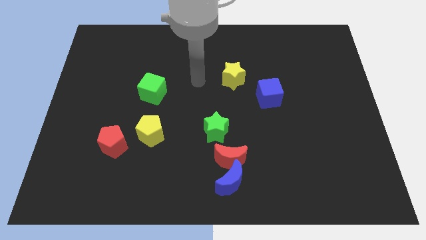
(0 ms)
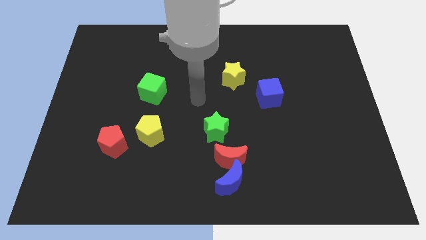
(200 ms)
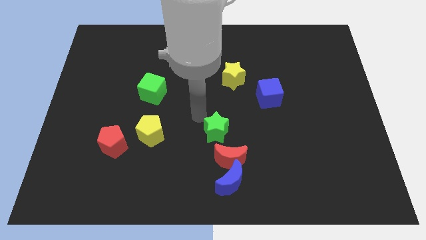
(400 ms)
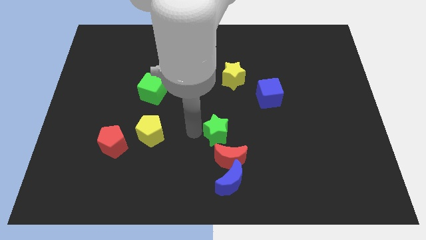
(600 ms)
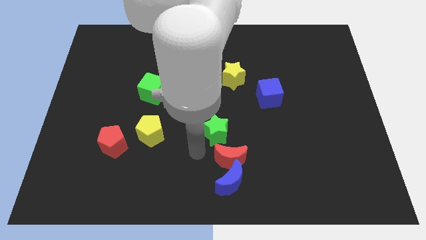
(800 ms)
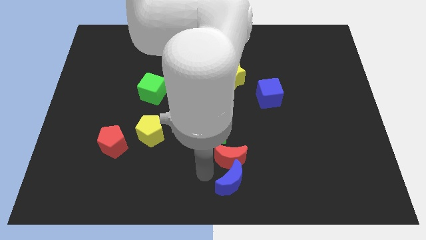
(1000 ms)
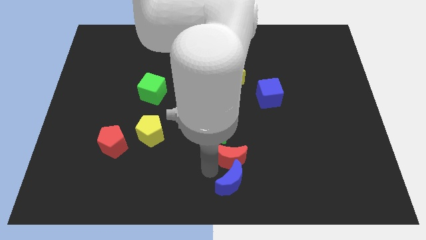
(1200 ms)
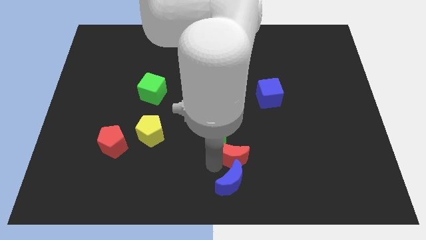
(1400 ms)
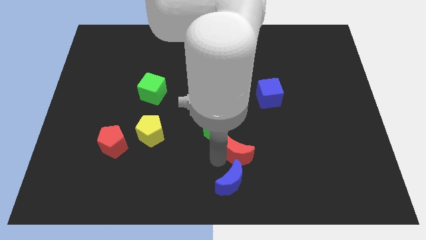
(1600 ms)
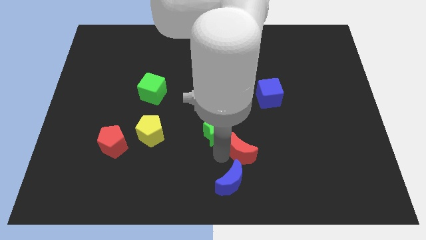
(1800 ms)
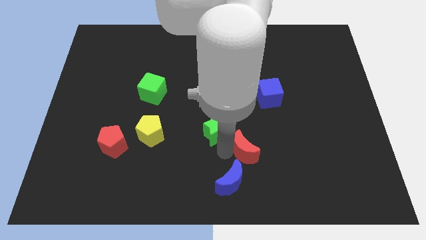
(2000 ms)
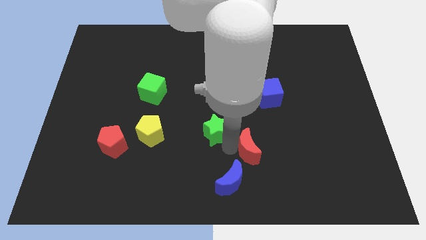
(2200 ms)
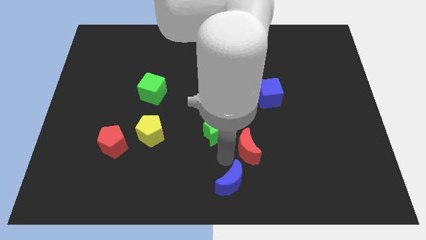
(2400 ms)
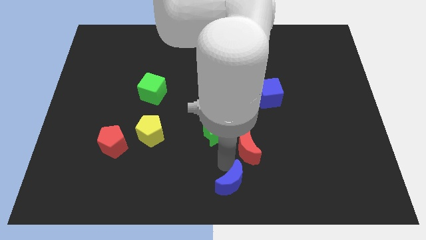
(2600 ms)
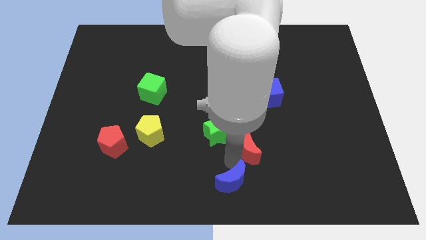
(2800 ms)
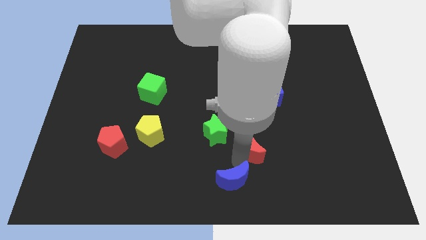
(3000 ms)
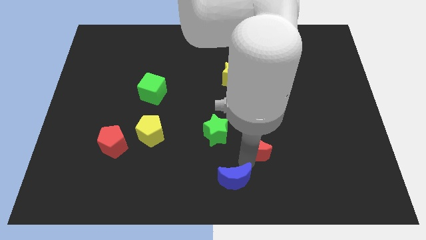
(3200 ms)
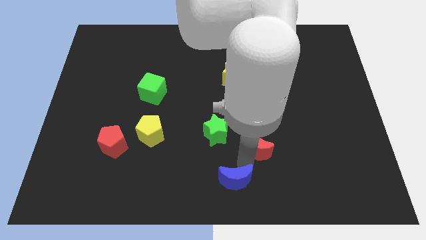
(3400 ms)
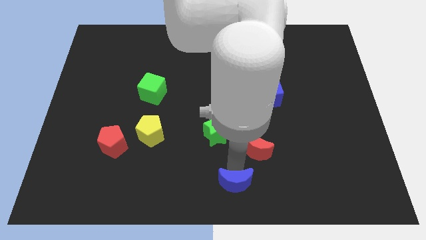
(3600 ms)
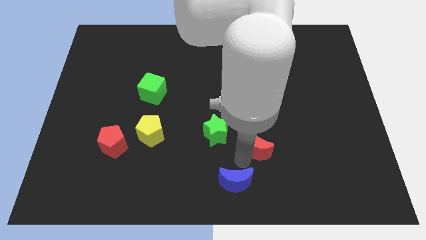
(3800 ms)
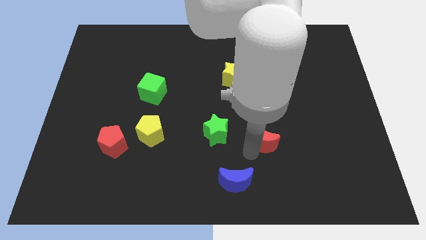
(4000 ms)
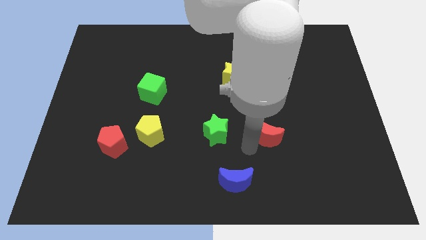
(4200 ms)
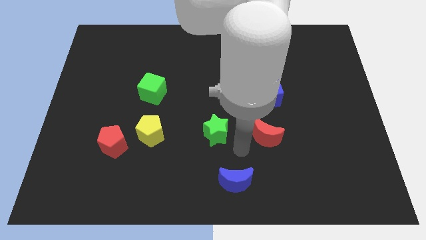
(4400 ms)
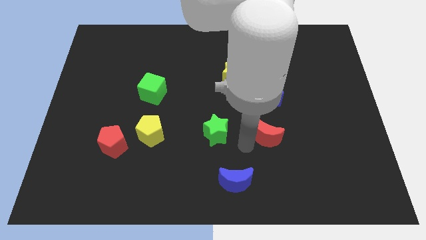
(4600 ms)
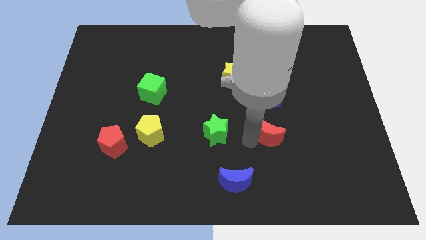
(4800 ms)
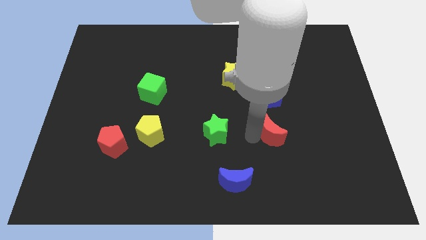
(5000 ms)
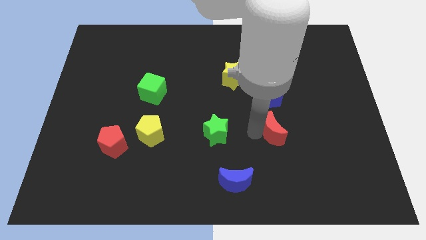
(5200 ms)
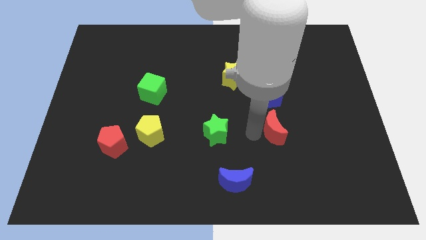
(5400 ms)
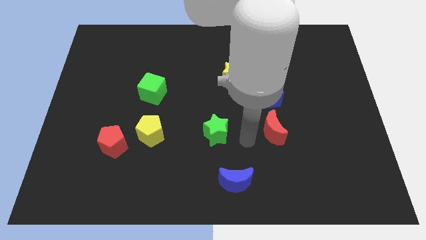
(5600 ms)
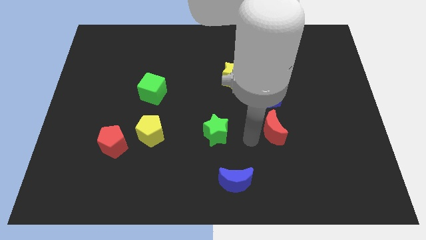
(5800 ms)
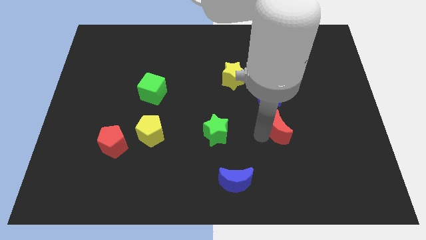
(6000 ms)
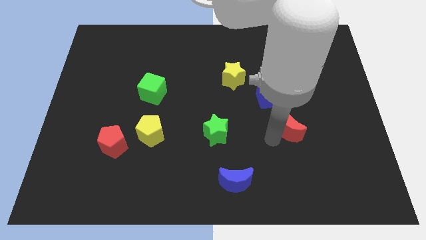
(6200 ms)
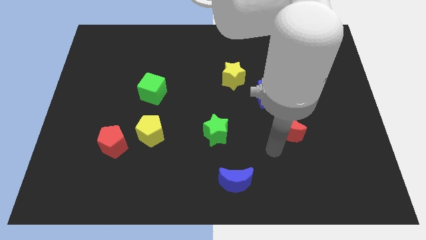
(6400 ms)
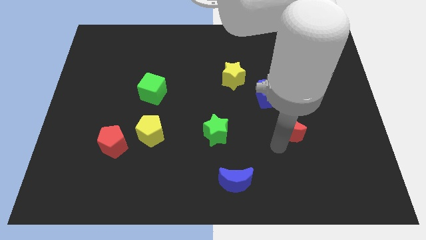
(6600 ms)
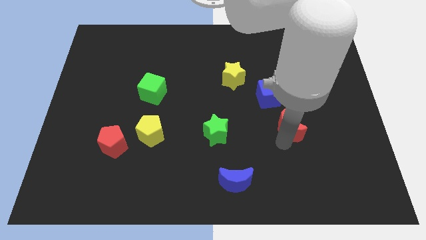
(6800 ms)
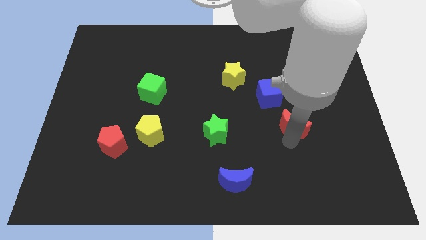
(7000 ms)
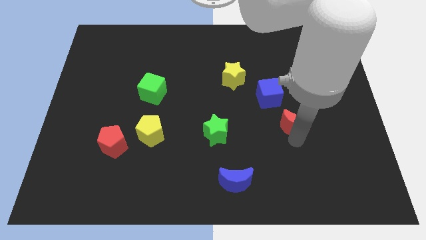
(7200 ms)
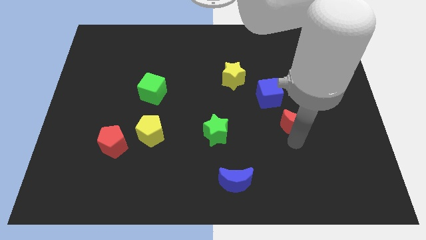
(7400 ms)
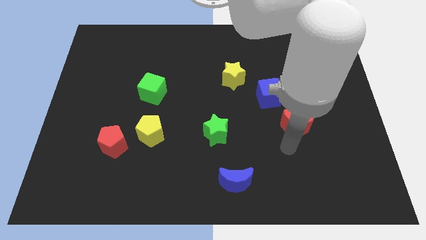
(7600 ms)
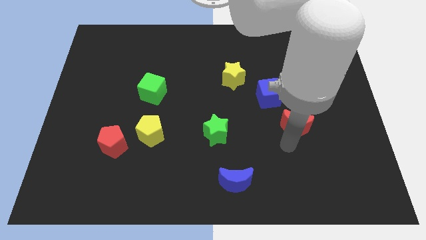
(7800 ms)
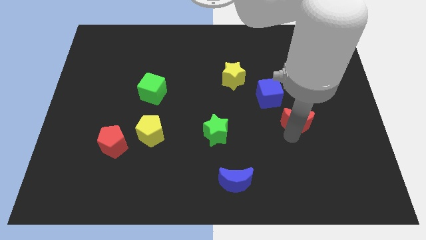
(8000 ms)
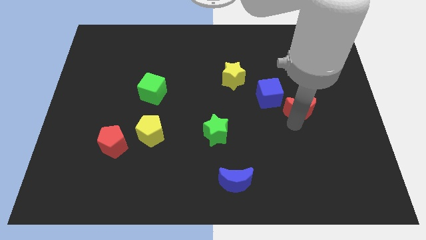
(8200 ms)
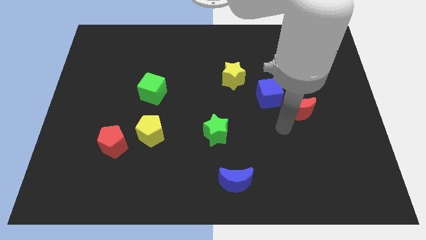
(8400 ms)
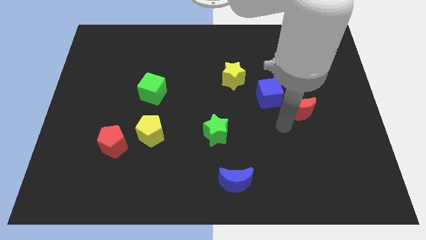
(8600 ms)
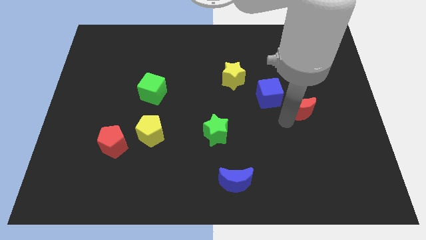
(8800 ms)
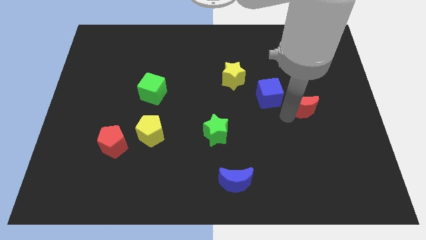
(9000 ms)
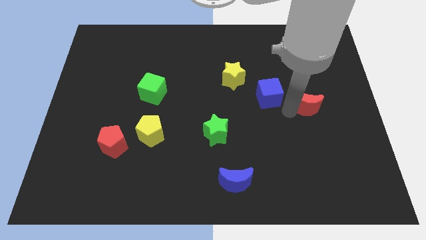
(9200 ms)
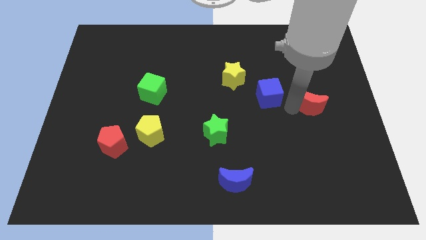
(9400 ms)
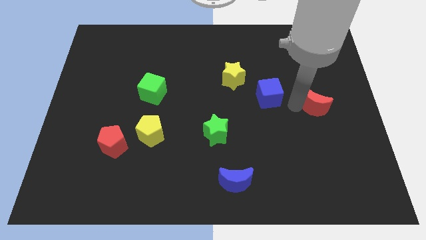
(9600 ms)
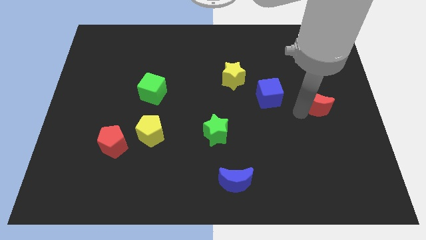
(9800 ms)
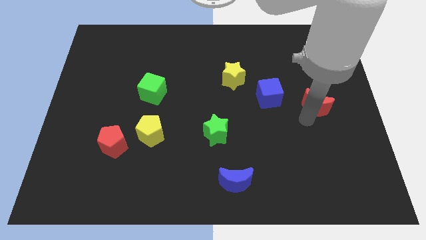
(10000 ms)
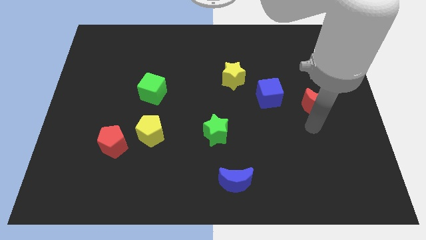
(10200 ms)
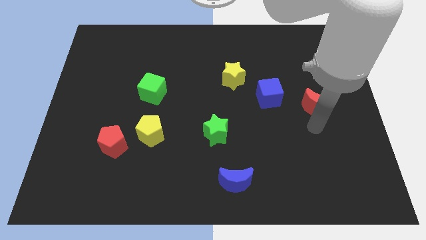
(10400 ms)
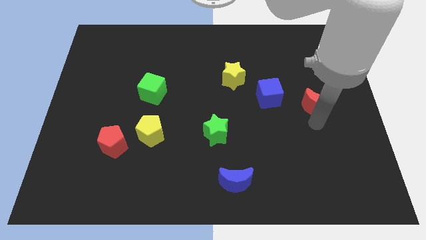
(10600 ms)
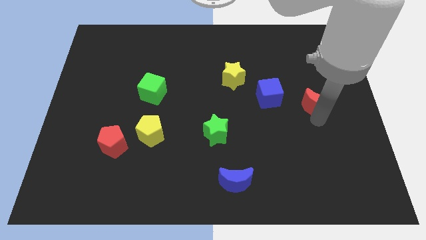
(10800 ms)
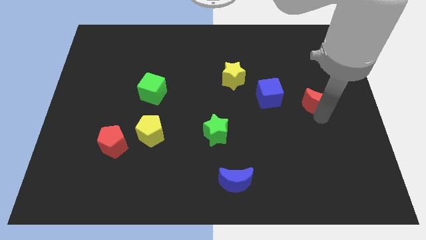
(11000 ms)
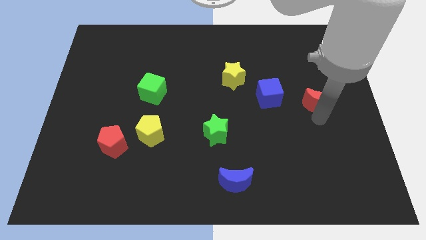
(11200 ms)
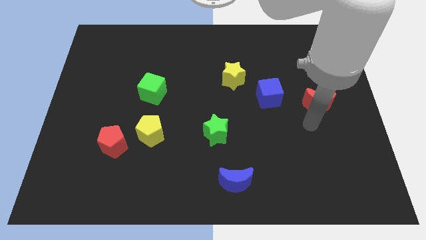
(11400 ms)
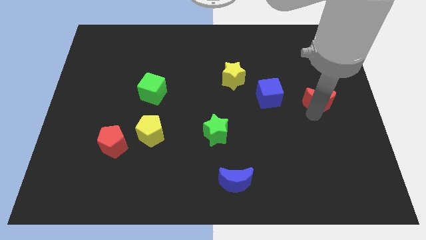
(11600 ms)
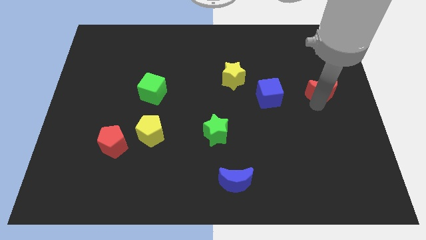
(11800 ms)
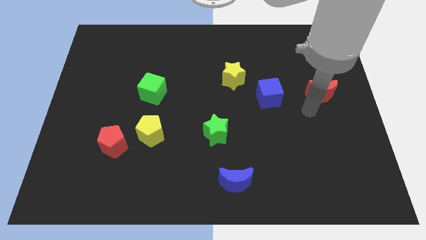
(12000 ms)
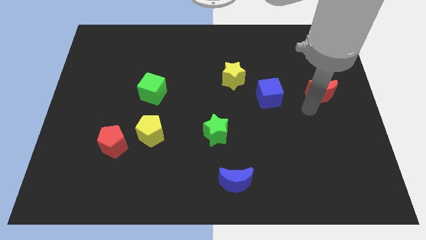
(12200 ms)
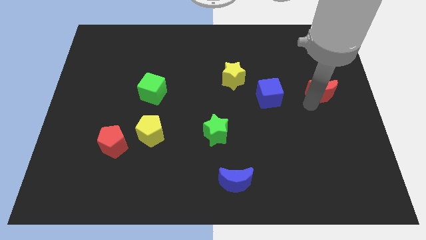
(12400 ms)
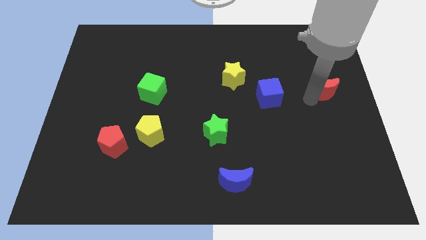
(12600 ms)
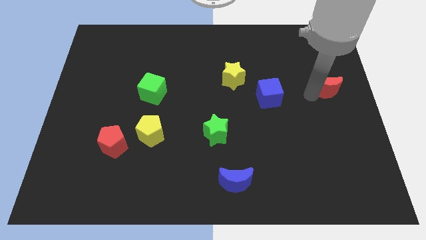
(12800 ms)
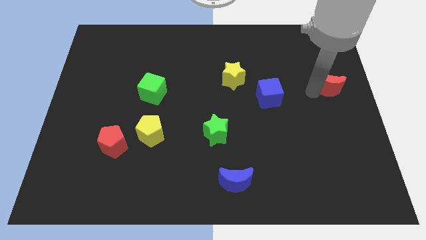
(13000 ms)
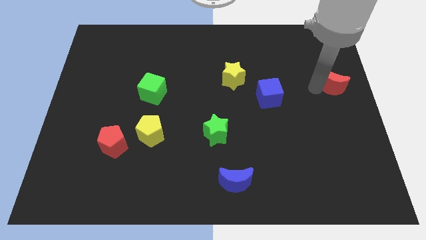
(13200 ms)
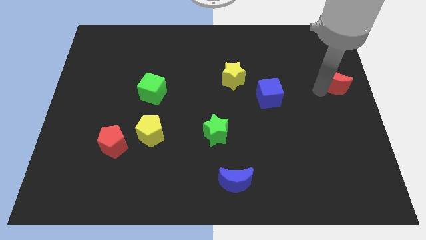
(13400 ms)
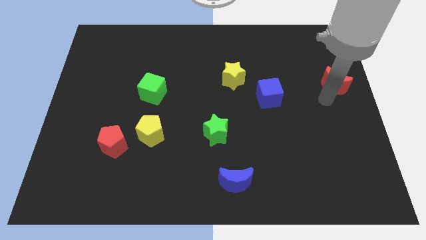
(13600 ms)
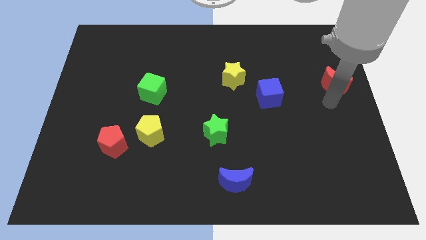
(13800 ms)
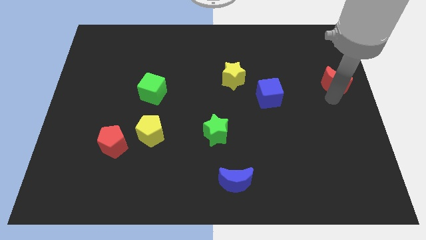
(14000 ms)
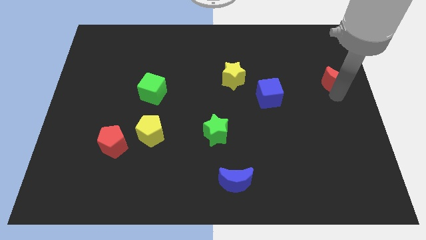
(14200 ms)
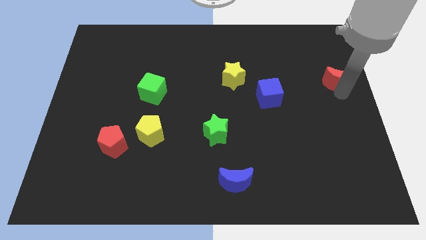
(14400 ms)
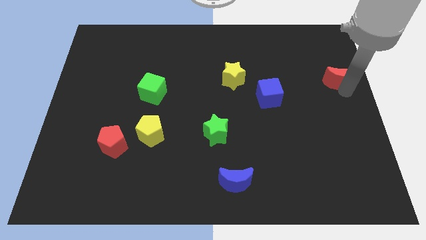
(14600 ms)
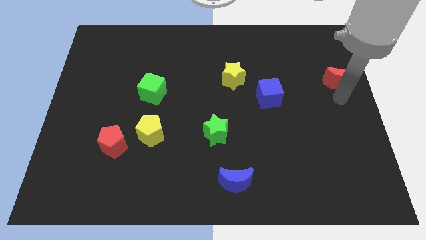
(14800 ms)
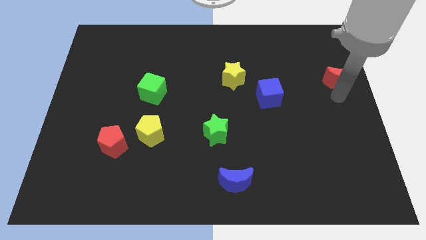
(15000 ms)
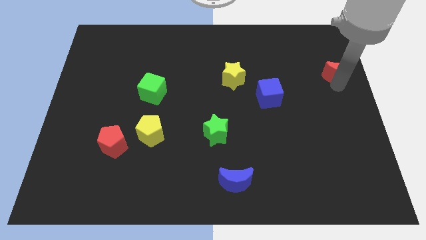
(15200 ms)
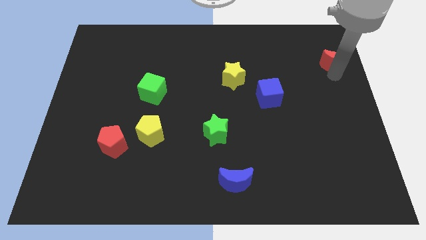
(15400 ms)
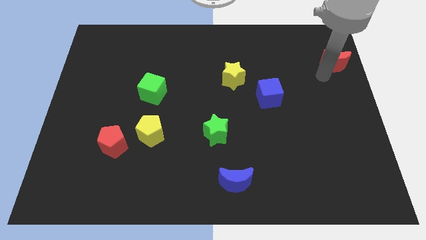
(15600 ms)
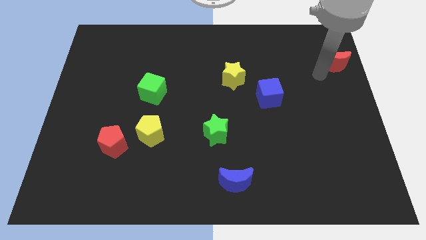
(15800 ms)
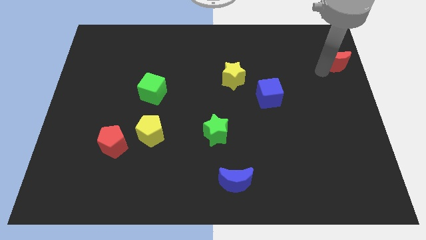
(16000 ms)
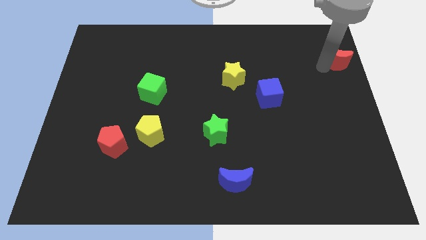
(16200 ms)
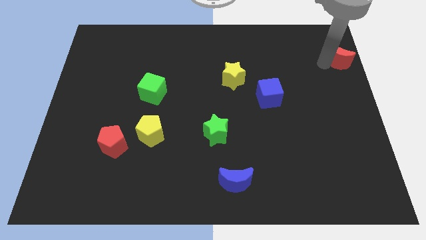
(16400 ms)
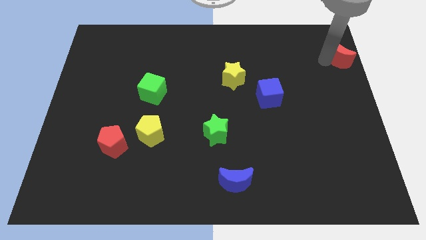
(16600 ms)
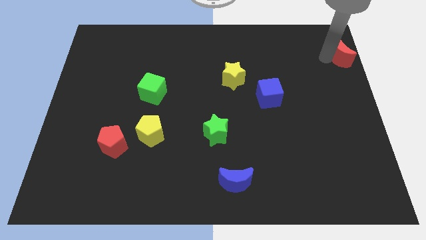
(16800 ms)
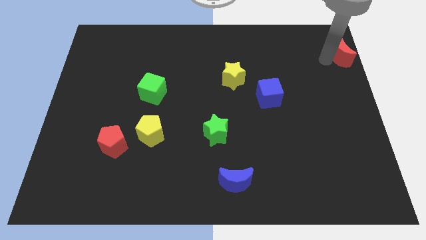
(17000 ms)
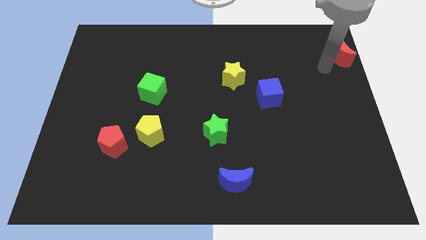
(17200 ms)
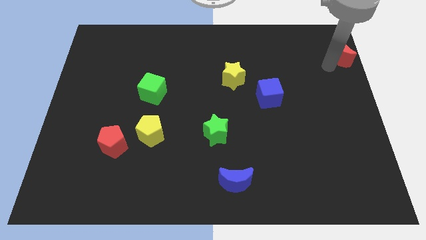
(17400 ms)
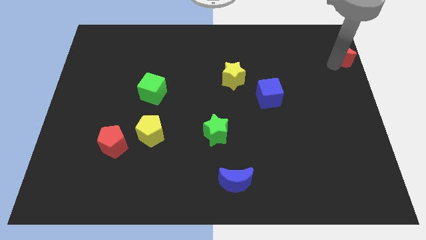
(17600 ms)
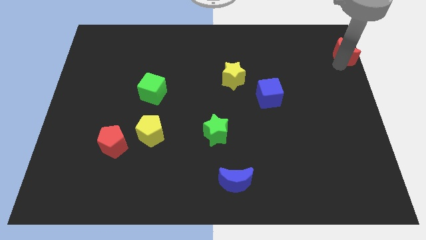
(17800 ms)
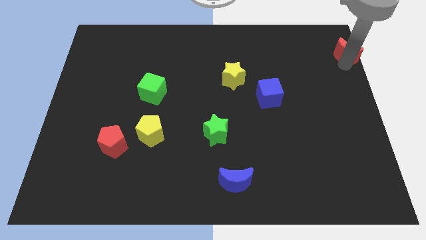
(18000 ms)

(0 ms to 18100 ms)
slide the red moon to the top right
